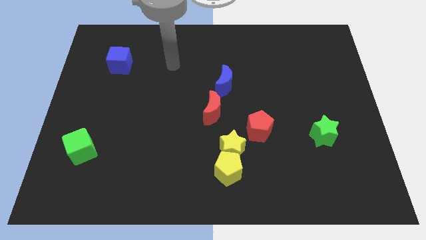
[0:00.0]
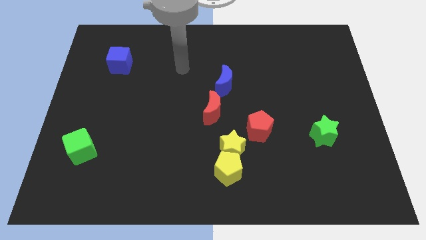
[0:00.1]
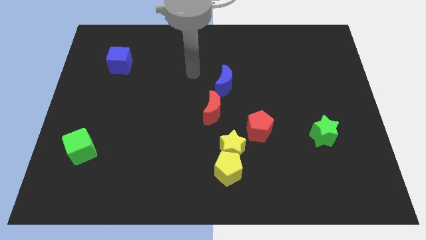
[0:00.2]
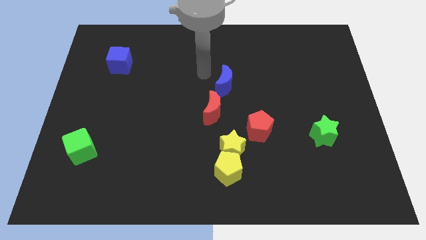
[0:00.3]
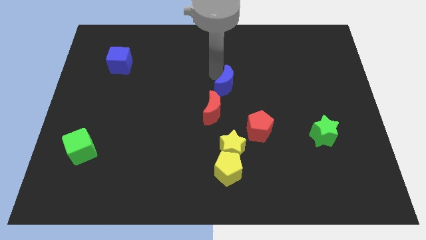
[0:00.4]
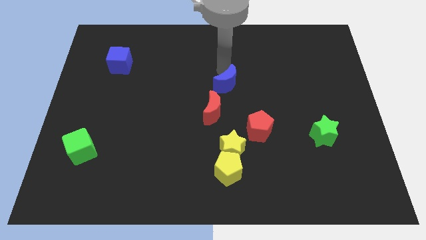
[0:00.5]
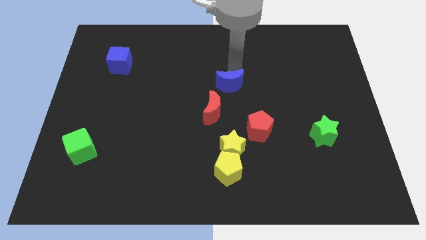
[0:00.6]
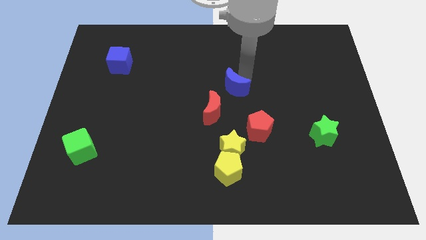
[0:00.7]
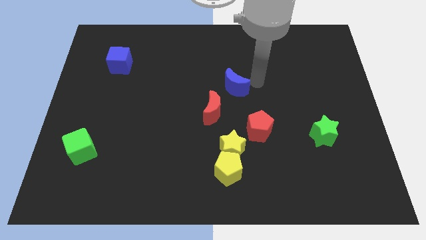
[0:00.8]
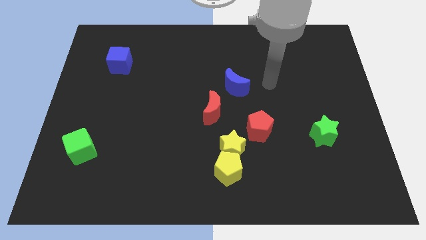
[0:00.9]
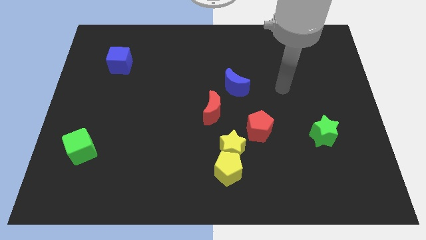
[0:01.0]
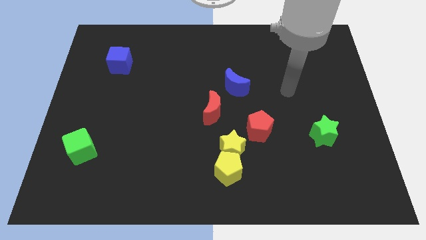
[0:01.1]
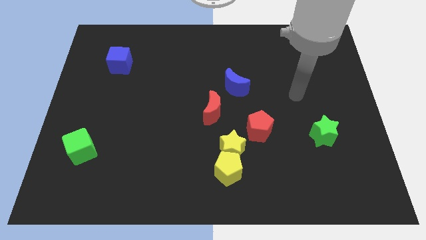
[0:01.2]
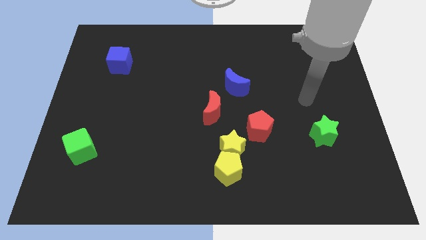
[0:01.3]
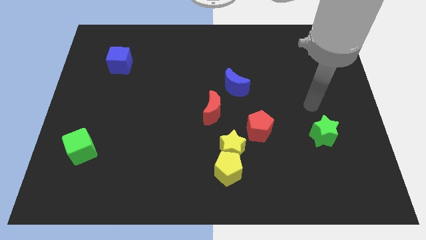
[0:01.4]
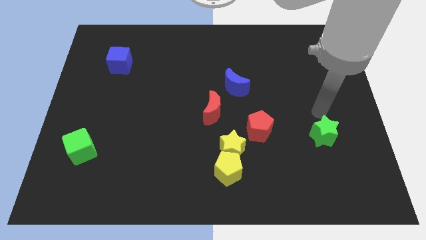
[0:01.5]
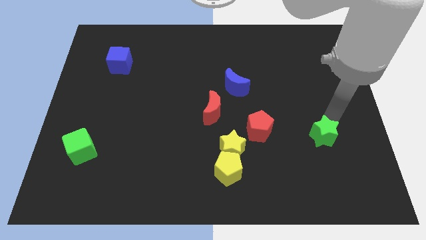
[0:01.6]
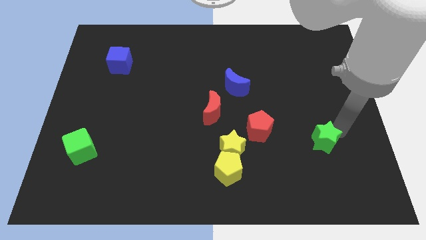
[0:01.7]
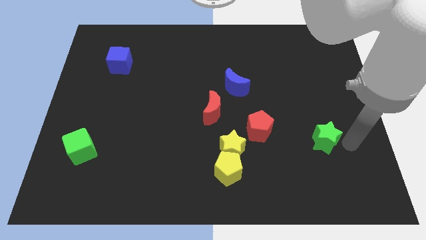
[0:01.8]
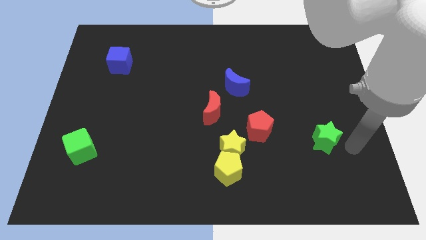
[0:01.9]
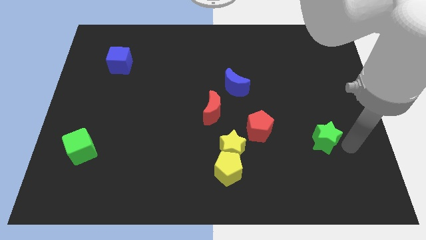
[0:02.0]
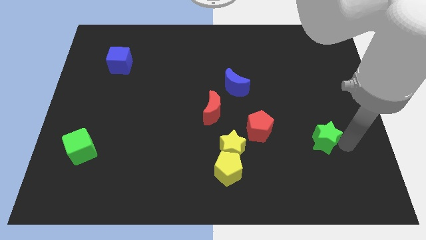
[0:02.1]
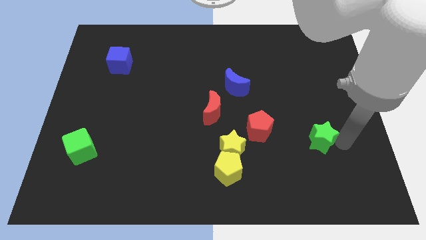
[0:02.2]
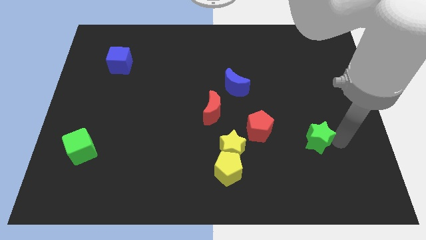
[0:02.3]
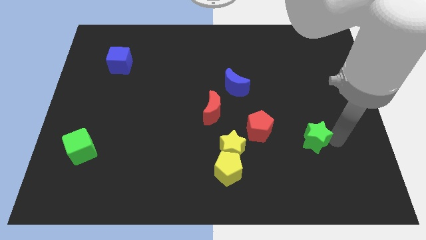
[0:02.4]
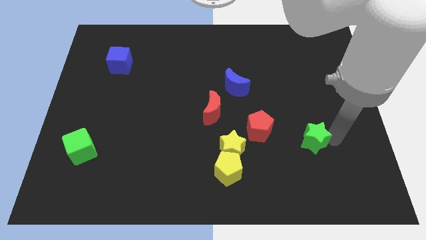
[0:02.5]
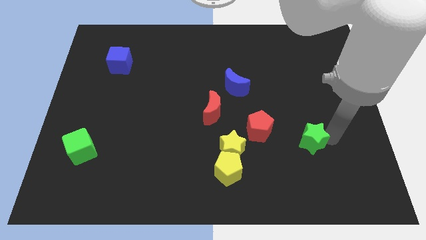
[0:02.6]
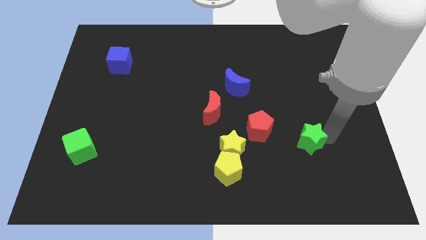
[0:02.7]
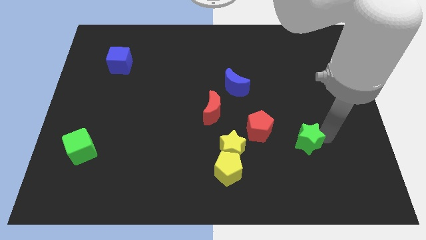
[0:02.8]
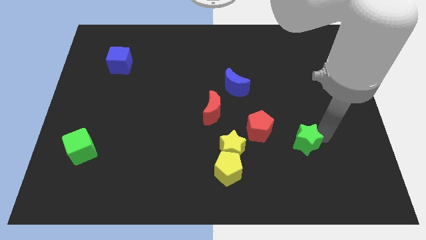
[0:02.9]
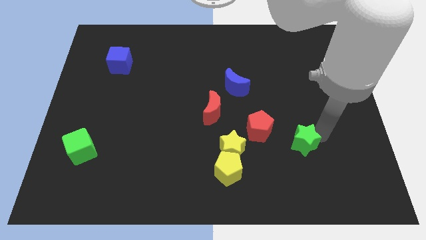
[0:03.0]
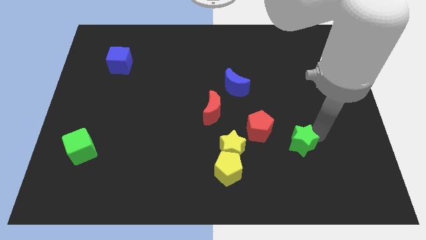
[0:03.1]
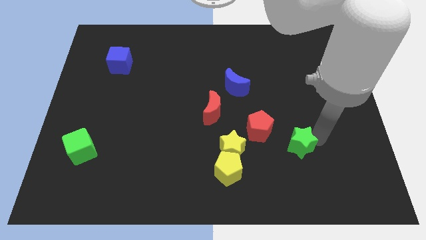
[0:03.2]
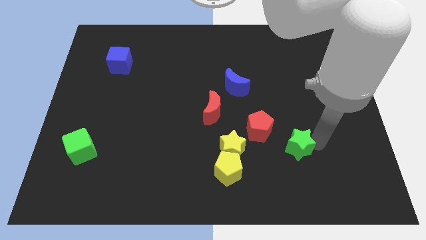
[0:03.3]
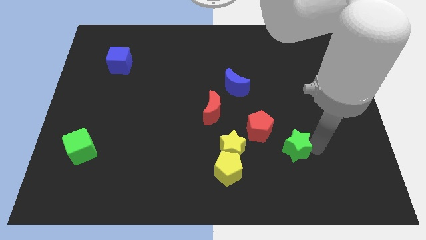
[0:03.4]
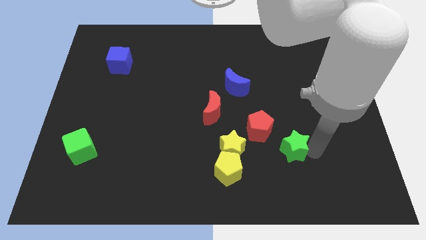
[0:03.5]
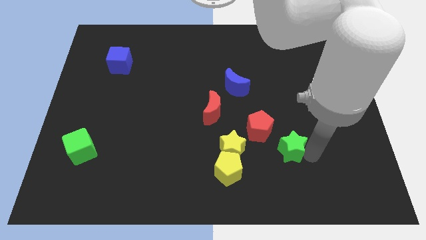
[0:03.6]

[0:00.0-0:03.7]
move the green star left a bit

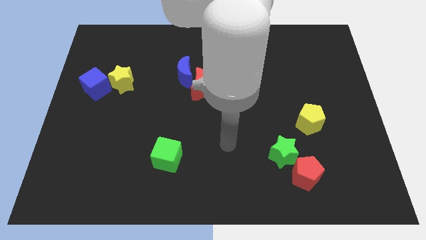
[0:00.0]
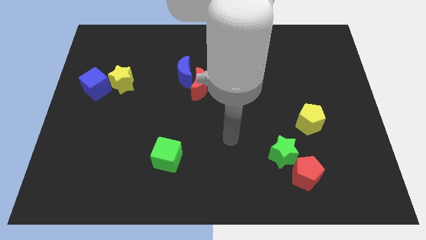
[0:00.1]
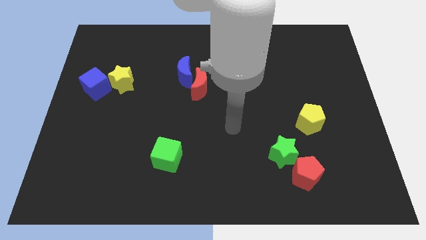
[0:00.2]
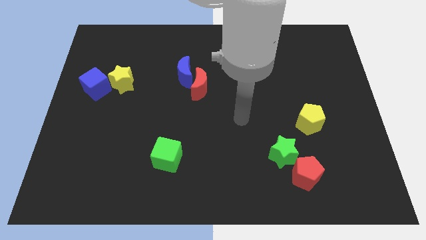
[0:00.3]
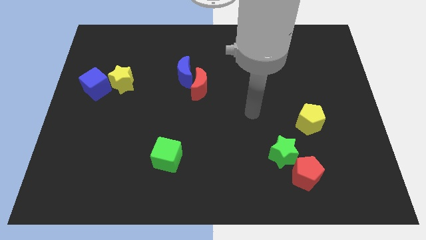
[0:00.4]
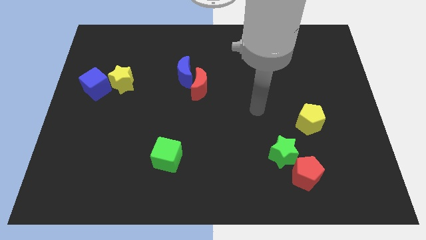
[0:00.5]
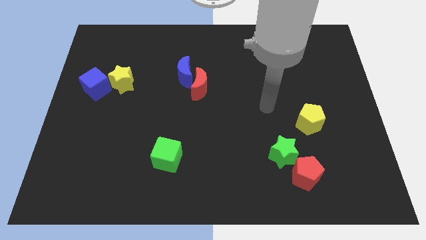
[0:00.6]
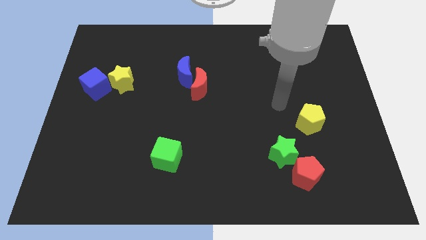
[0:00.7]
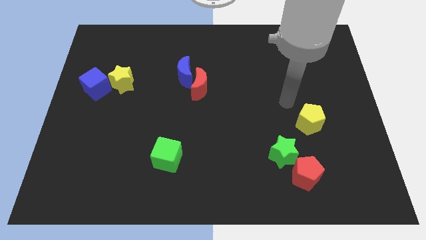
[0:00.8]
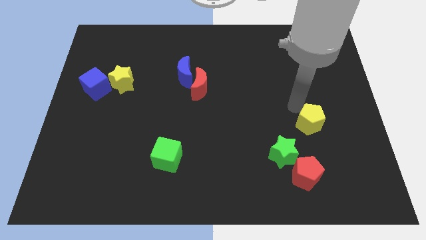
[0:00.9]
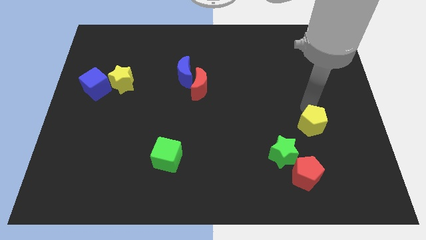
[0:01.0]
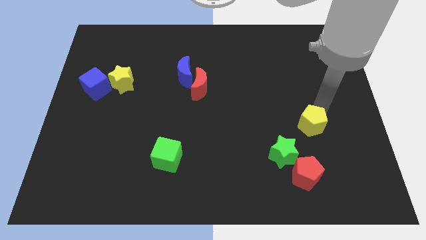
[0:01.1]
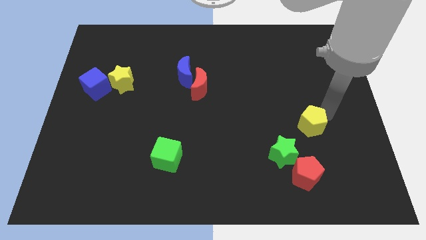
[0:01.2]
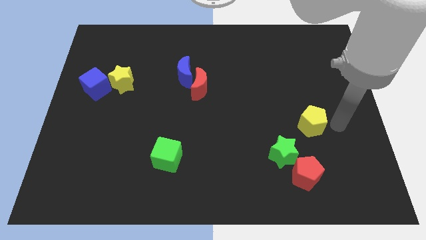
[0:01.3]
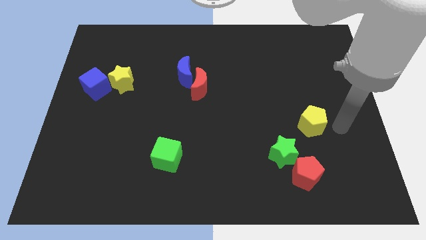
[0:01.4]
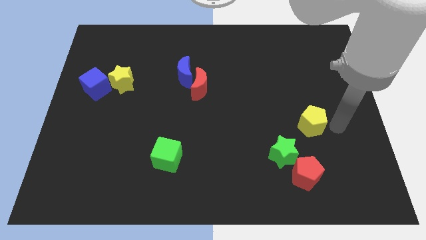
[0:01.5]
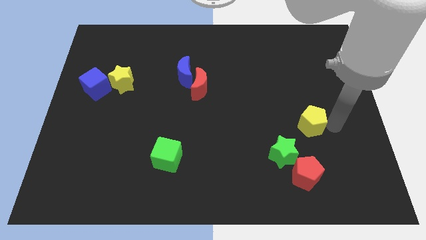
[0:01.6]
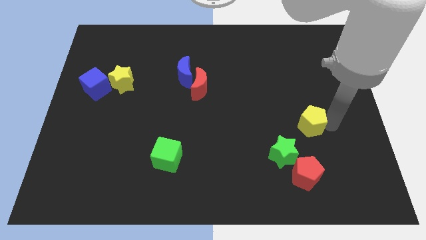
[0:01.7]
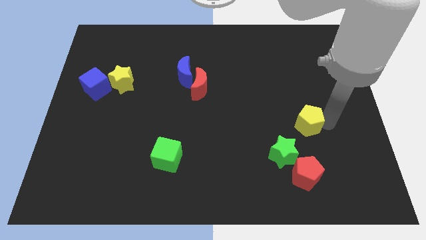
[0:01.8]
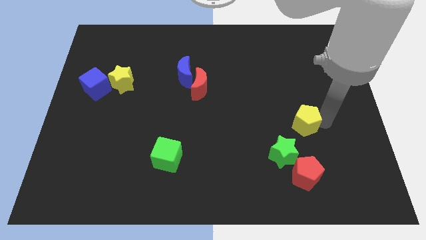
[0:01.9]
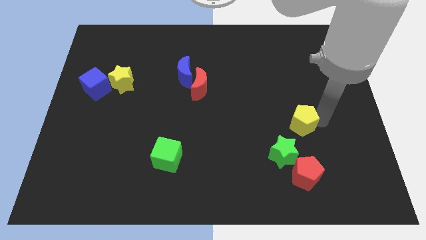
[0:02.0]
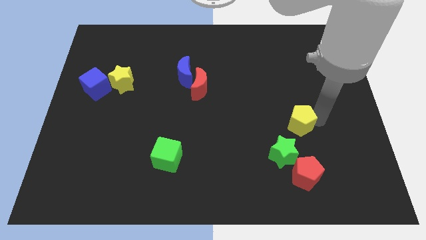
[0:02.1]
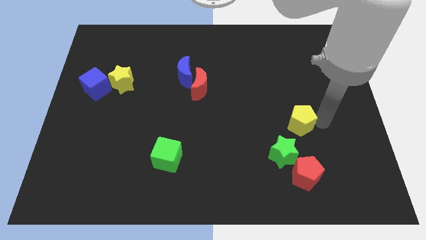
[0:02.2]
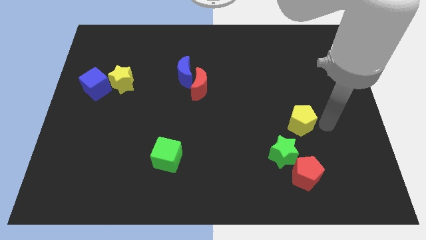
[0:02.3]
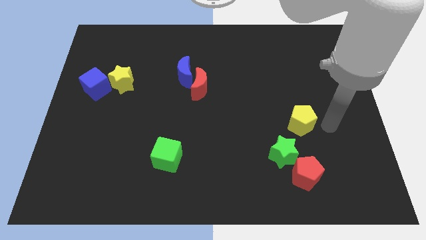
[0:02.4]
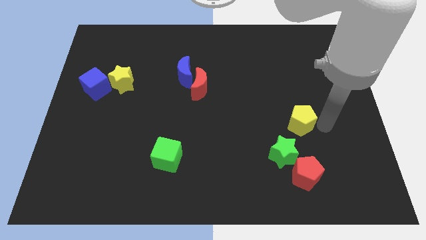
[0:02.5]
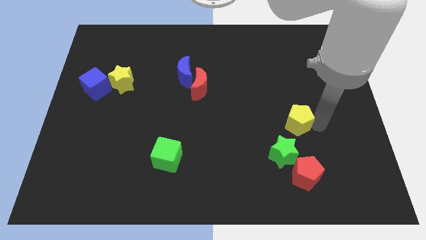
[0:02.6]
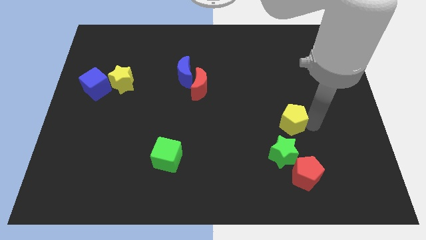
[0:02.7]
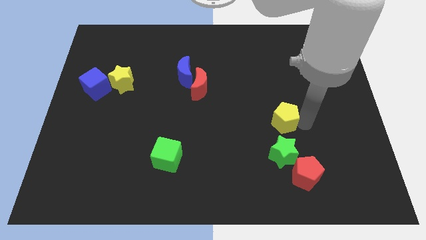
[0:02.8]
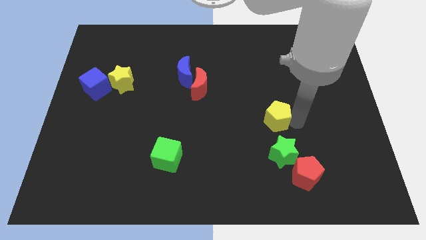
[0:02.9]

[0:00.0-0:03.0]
slide the yellow pentagon a little bit left

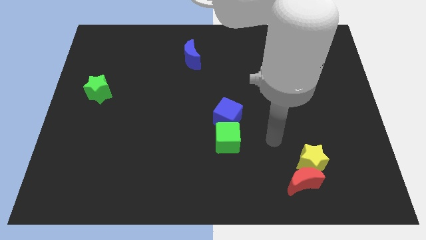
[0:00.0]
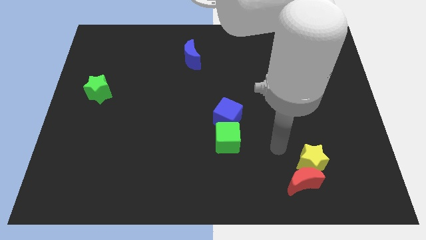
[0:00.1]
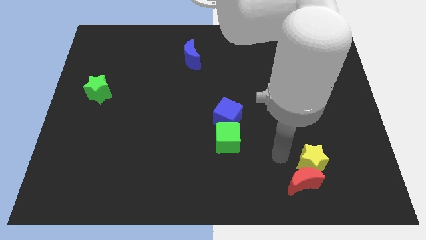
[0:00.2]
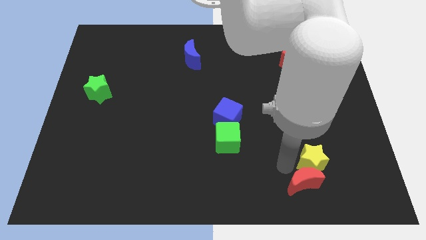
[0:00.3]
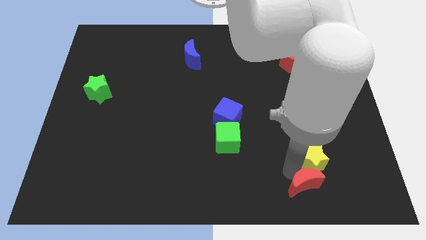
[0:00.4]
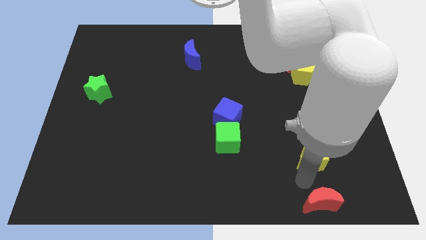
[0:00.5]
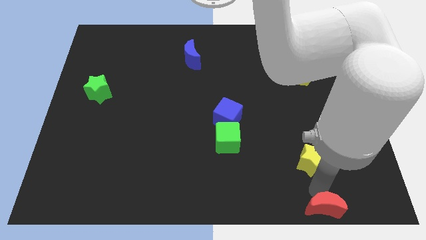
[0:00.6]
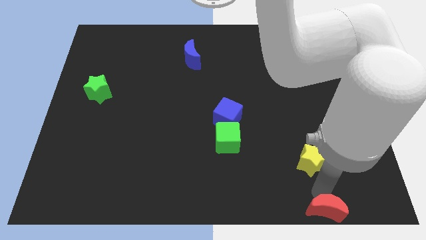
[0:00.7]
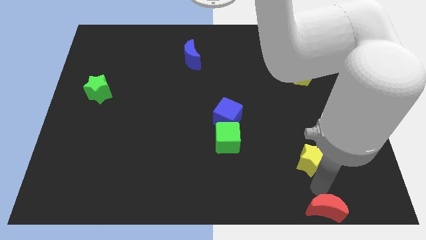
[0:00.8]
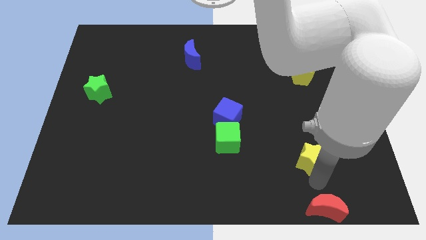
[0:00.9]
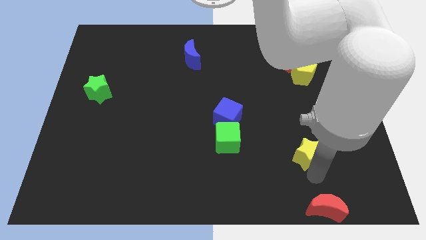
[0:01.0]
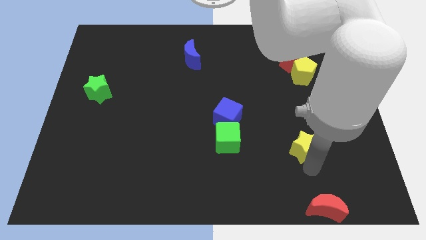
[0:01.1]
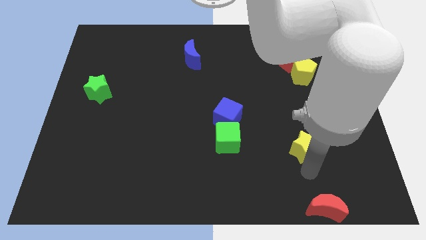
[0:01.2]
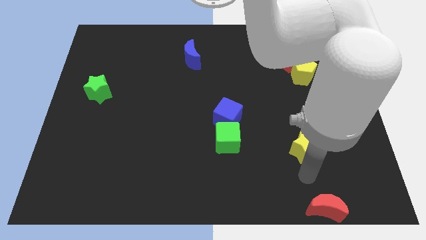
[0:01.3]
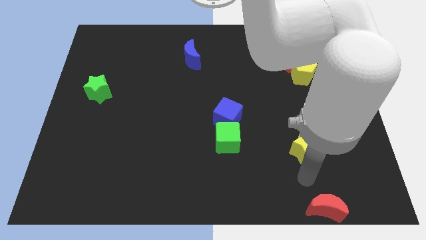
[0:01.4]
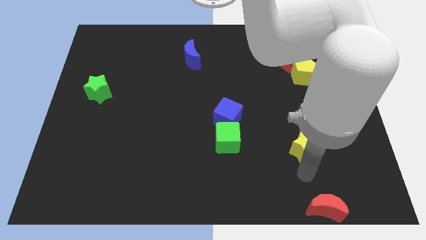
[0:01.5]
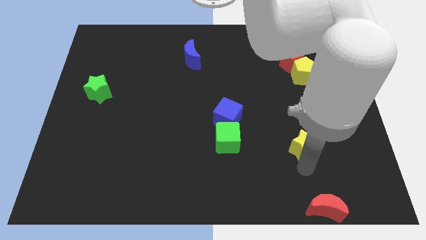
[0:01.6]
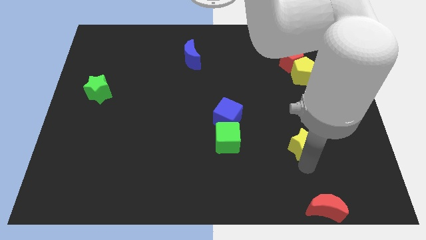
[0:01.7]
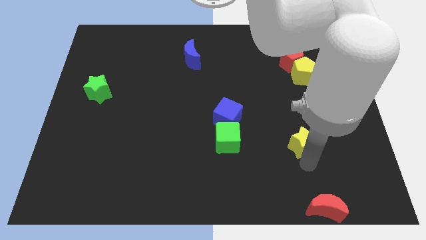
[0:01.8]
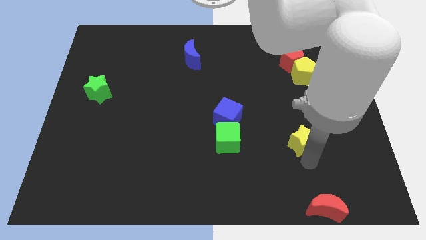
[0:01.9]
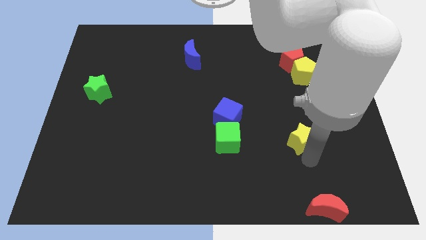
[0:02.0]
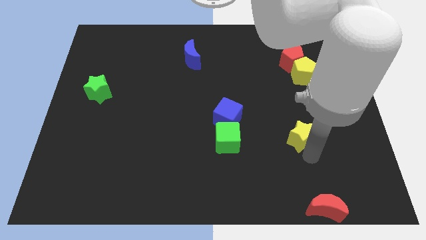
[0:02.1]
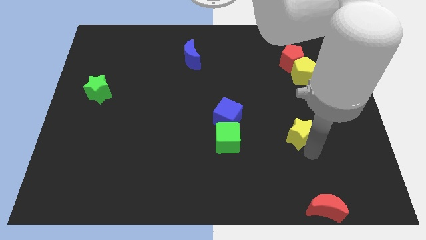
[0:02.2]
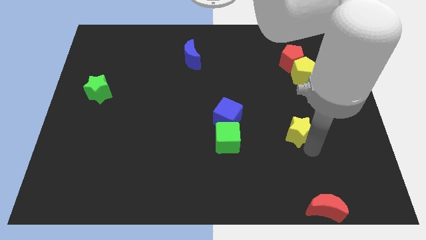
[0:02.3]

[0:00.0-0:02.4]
move the yellow star slightly upwards
